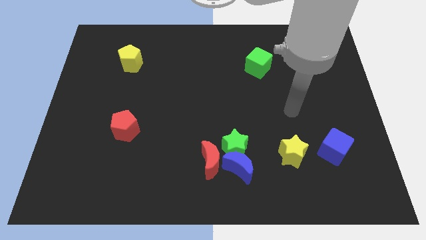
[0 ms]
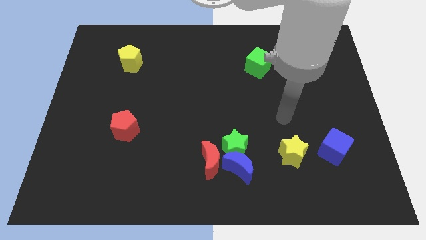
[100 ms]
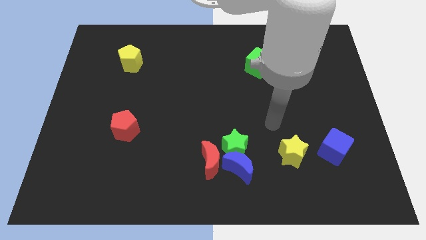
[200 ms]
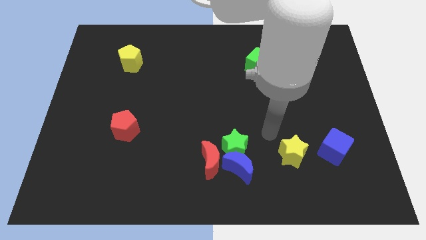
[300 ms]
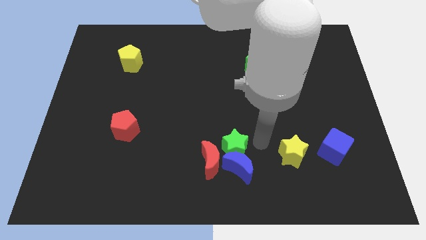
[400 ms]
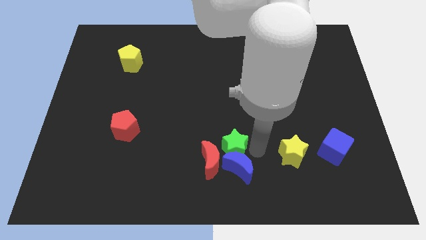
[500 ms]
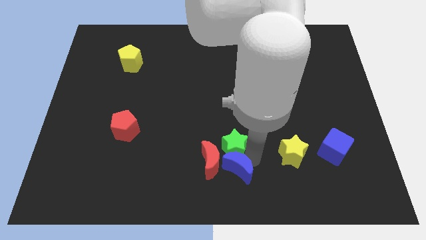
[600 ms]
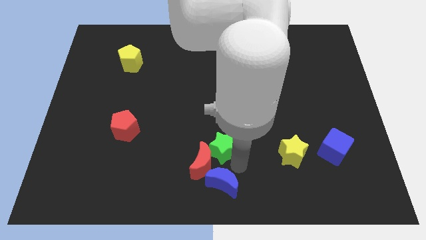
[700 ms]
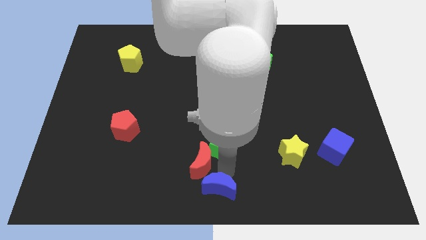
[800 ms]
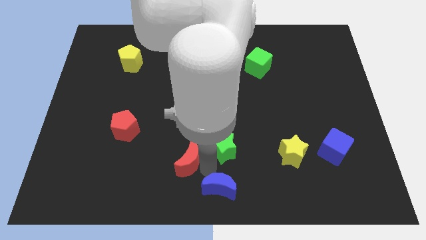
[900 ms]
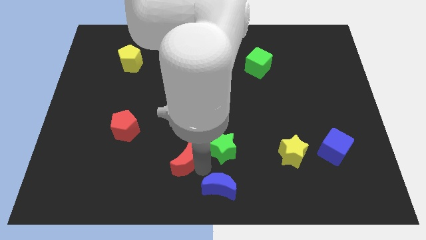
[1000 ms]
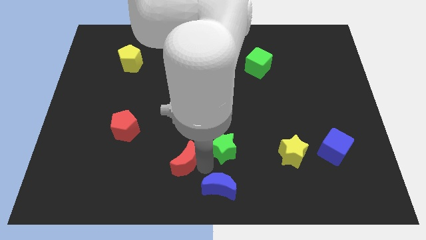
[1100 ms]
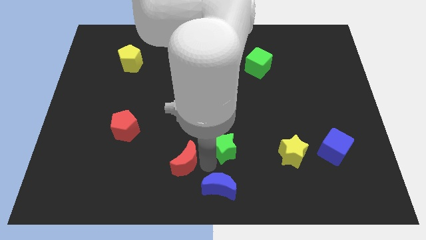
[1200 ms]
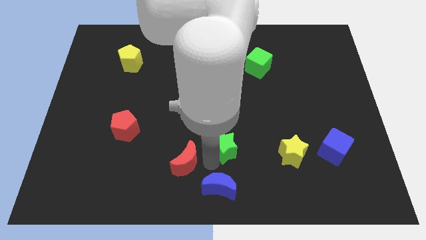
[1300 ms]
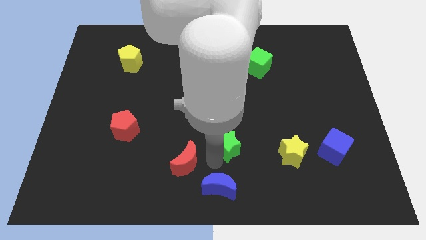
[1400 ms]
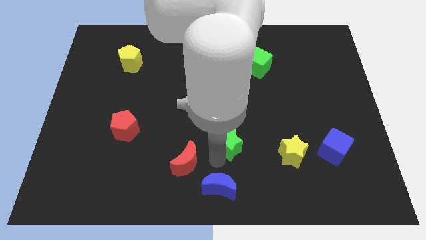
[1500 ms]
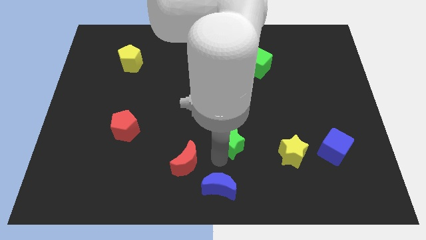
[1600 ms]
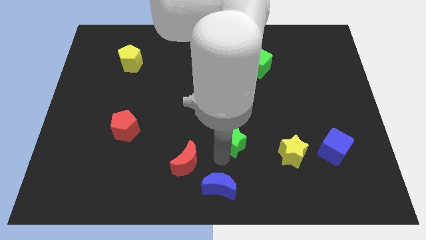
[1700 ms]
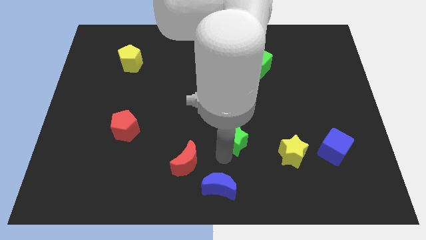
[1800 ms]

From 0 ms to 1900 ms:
pull the green star apart from the blue moon and red moon

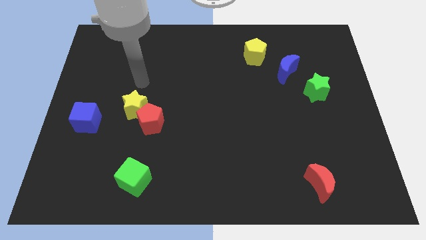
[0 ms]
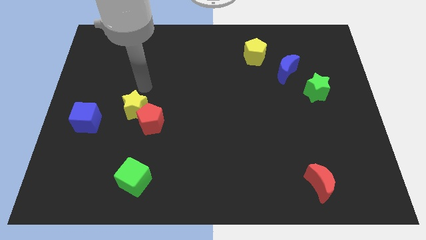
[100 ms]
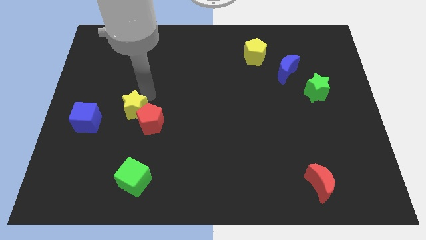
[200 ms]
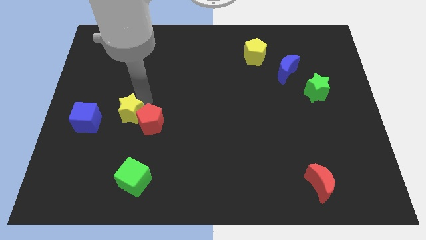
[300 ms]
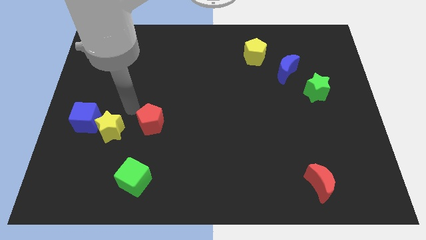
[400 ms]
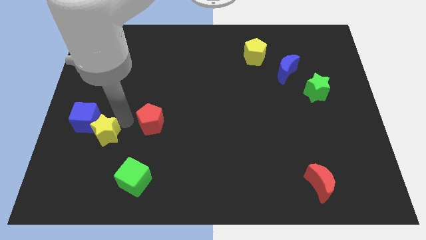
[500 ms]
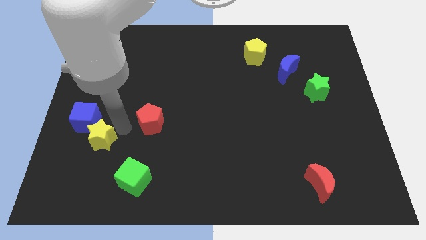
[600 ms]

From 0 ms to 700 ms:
separate the red pentagon from the yellow star

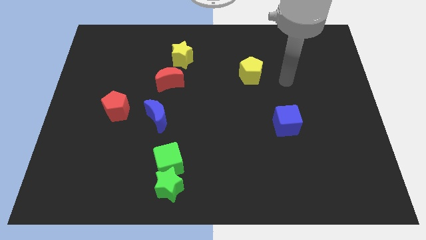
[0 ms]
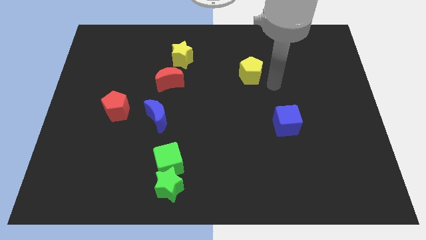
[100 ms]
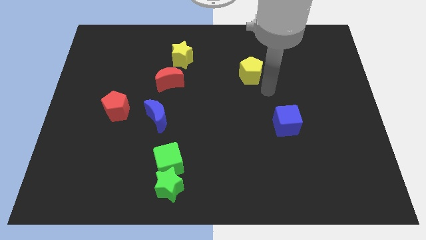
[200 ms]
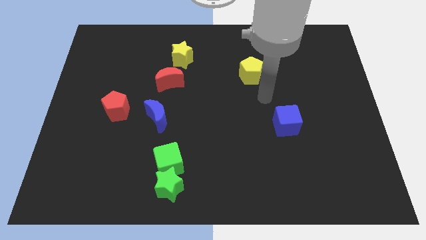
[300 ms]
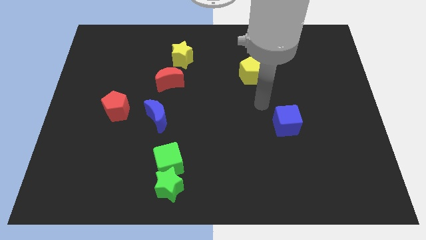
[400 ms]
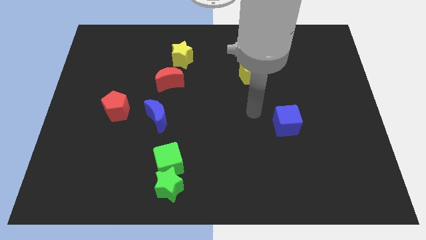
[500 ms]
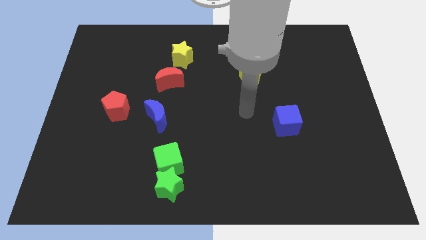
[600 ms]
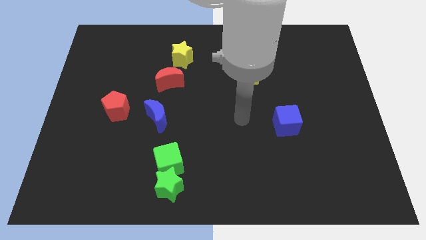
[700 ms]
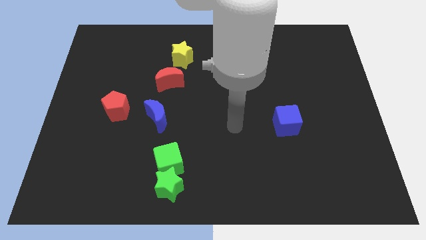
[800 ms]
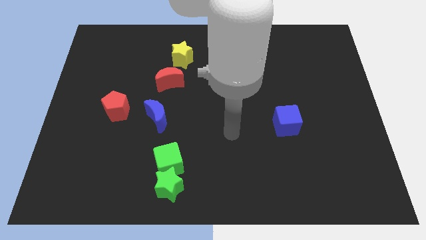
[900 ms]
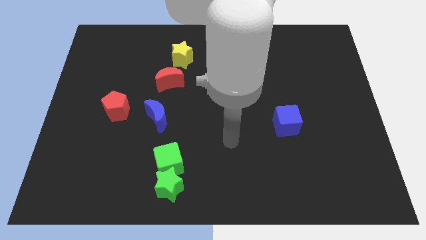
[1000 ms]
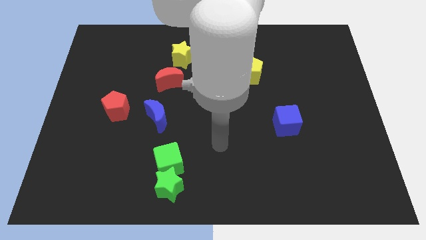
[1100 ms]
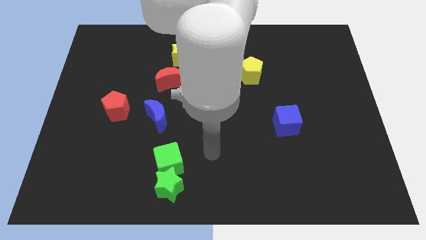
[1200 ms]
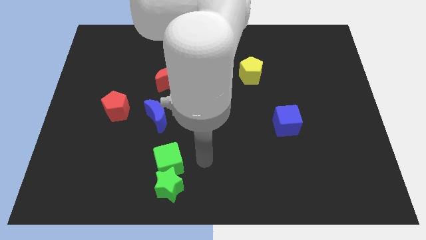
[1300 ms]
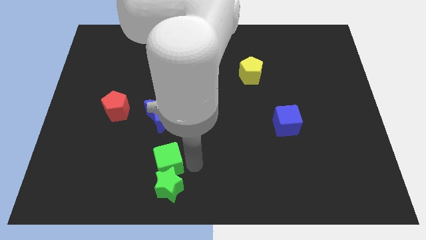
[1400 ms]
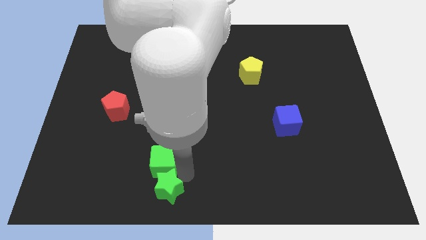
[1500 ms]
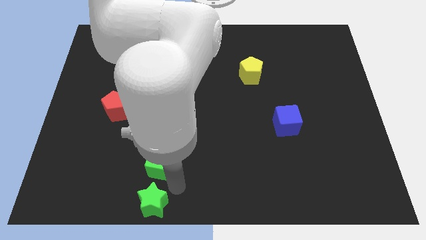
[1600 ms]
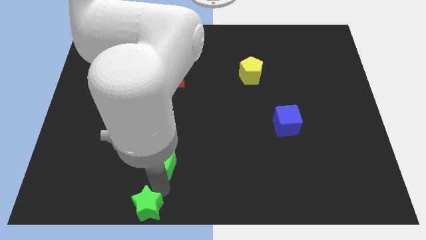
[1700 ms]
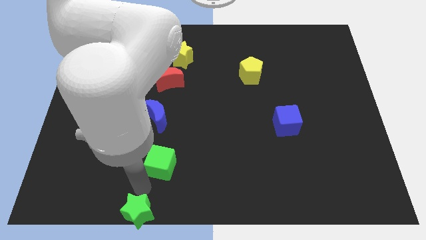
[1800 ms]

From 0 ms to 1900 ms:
pull the green cube apart from the green star

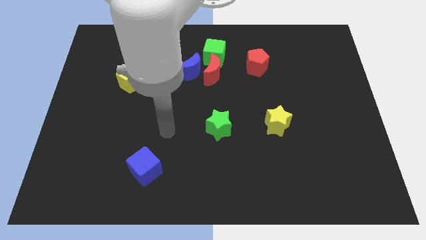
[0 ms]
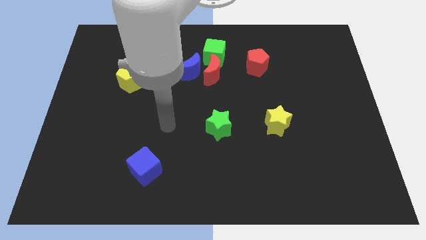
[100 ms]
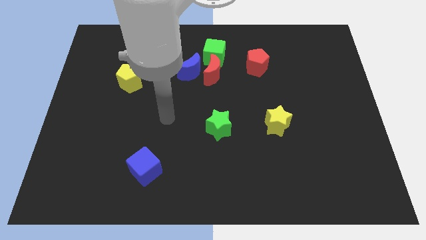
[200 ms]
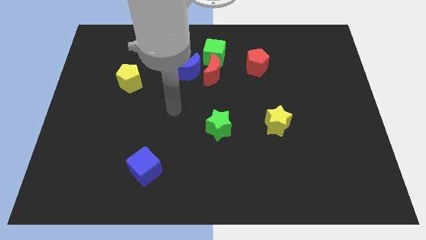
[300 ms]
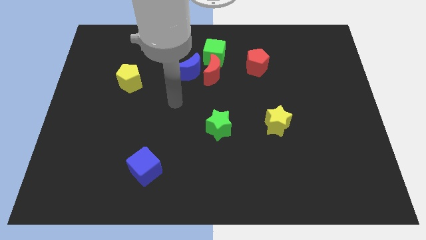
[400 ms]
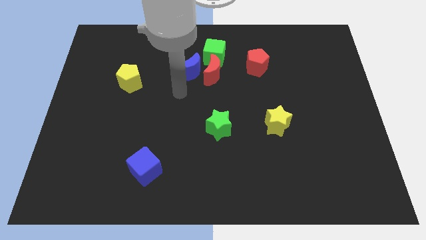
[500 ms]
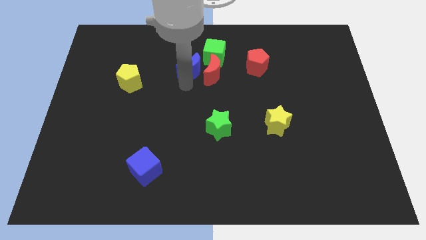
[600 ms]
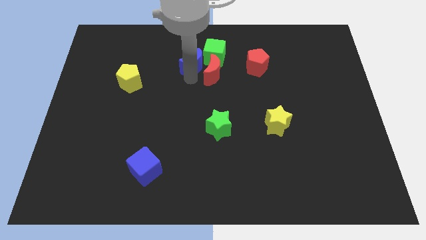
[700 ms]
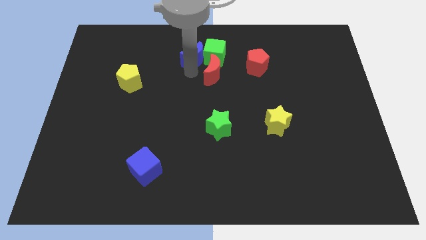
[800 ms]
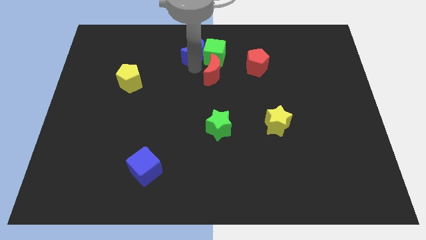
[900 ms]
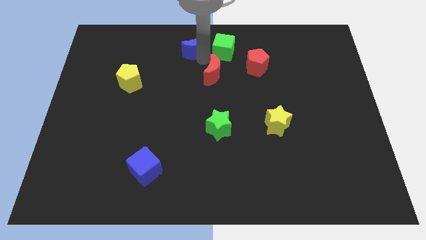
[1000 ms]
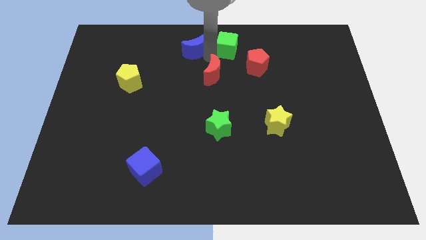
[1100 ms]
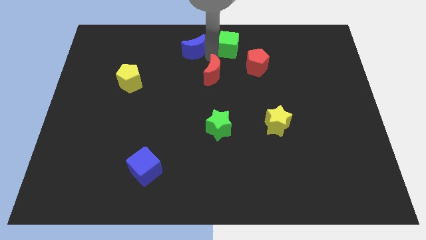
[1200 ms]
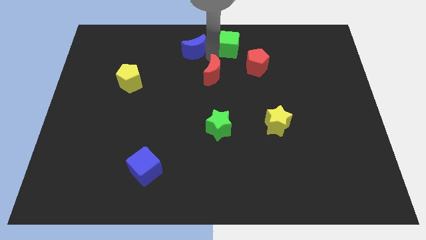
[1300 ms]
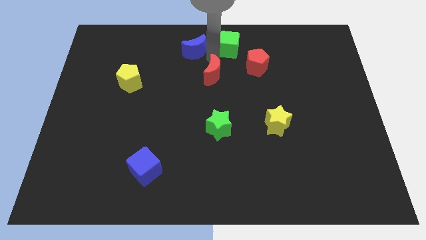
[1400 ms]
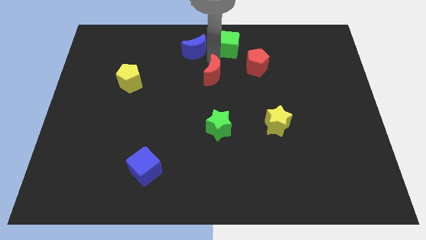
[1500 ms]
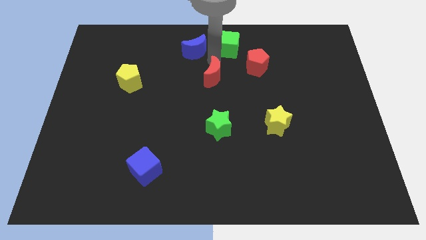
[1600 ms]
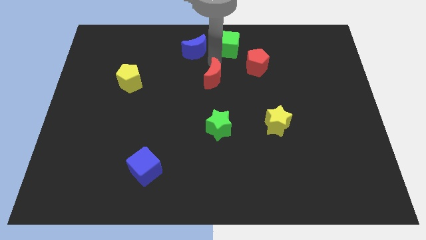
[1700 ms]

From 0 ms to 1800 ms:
pull the red moon apart from the blue moon and green cube

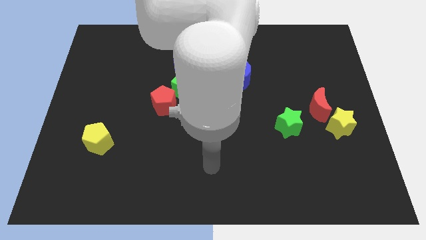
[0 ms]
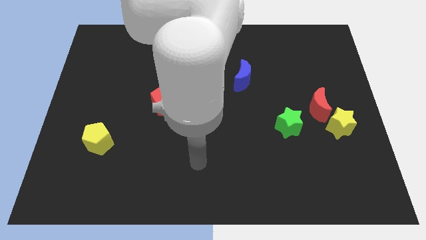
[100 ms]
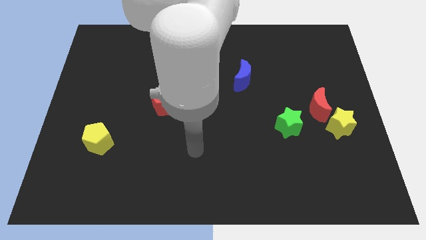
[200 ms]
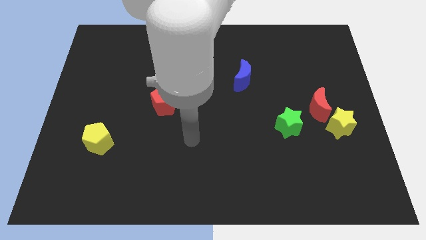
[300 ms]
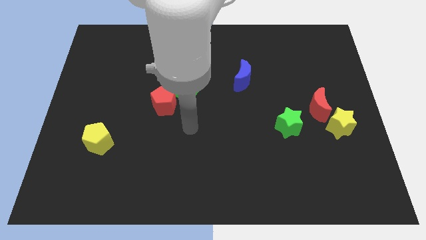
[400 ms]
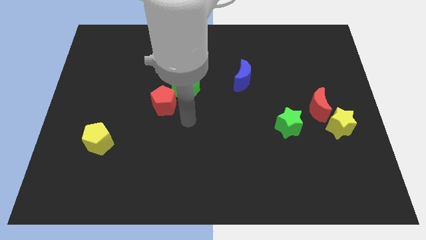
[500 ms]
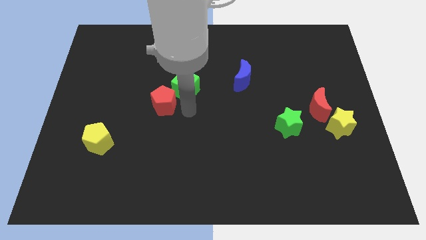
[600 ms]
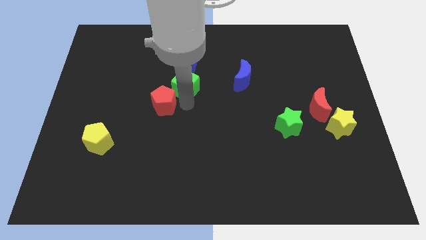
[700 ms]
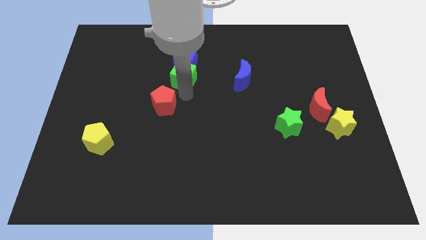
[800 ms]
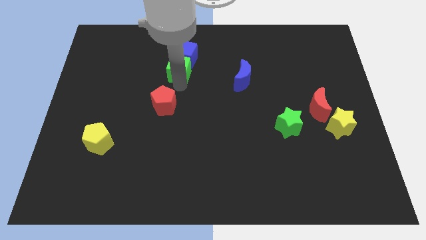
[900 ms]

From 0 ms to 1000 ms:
pull the red pentagon apart from the green cube

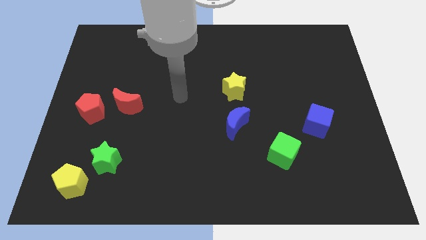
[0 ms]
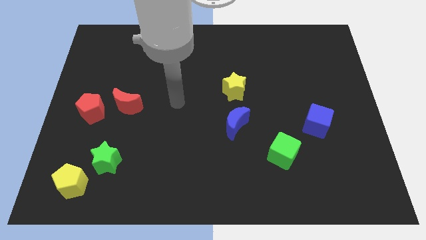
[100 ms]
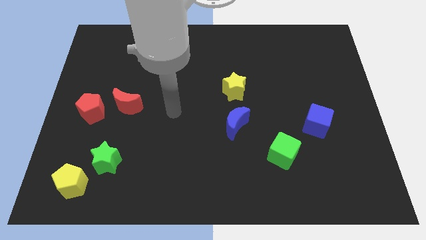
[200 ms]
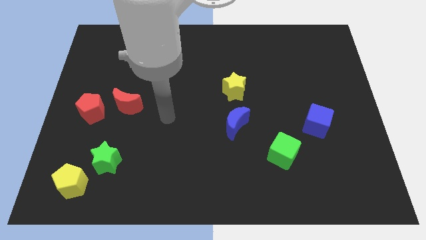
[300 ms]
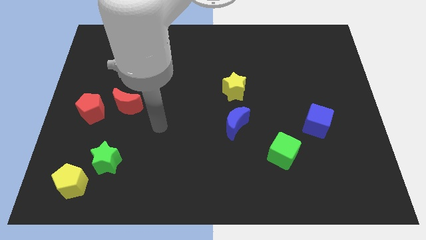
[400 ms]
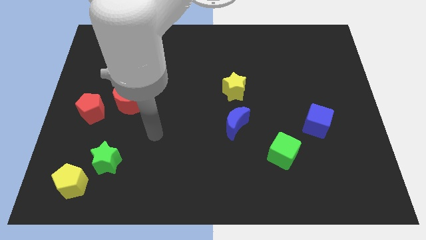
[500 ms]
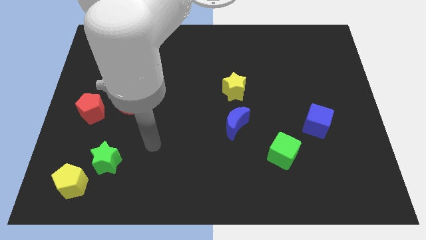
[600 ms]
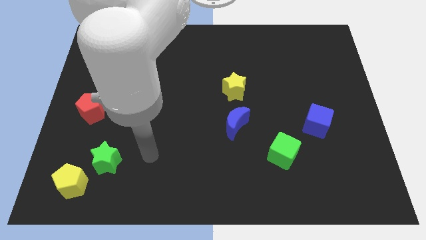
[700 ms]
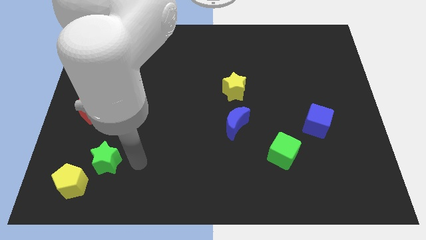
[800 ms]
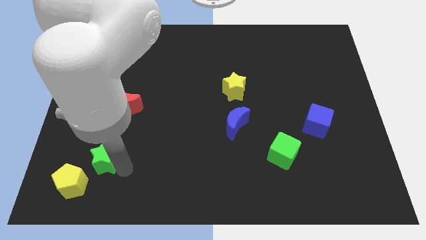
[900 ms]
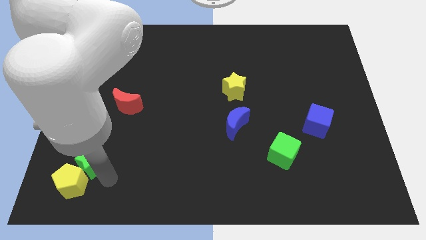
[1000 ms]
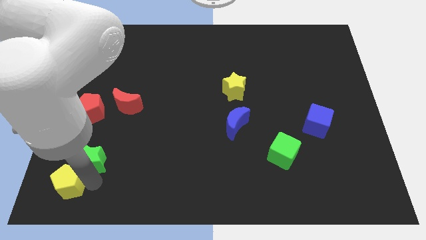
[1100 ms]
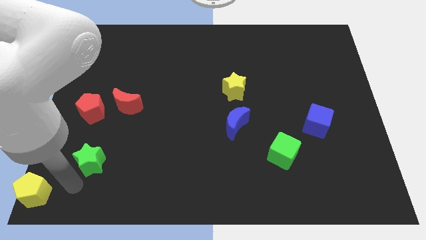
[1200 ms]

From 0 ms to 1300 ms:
separate the green star from the yellow pentagon

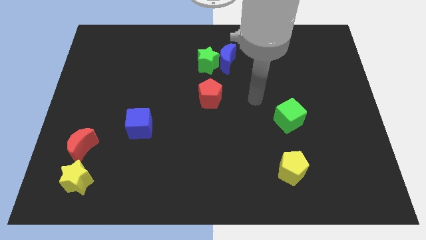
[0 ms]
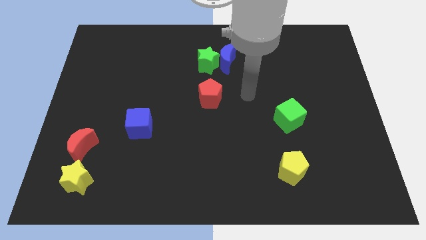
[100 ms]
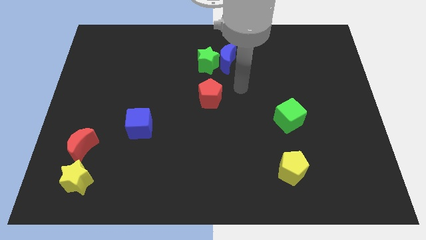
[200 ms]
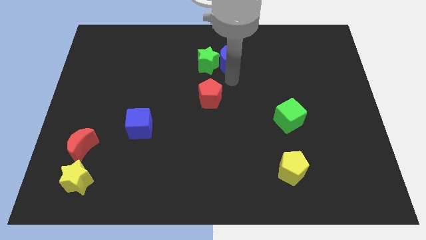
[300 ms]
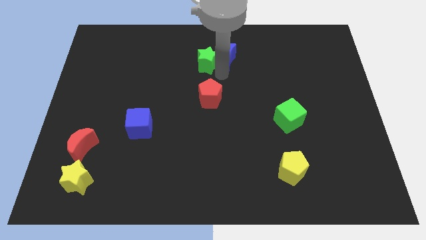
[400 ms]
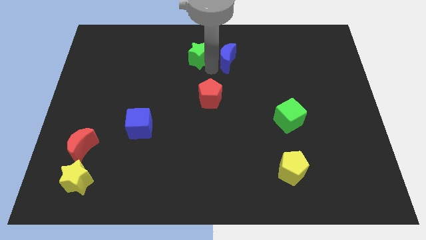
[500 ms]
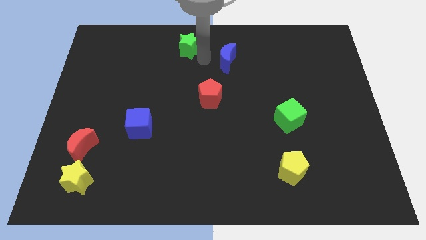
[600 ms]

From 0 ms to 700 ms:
pull the blue moon apart from the green star

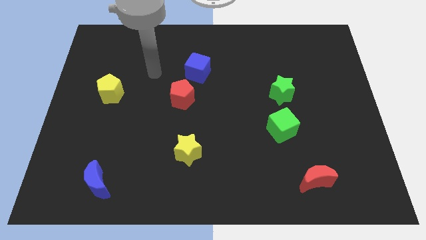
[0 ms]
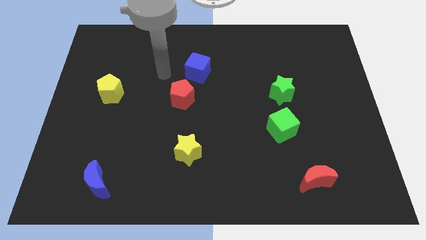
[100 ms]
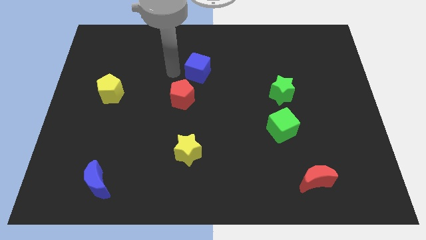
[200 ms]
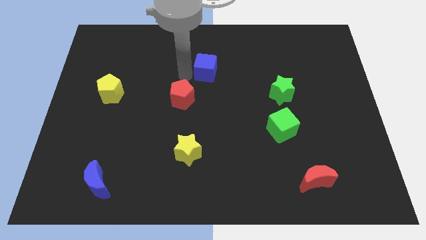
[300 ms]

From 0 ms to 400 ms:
separate the red pentagon from the blue cube
